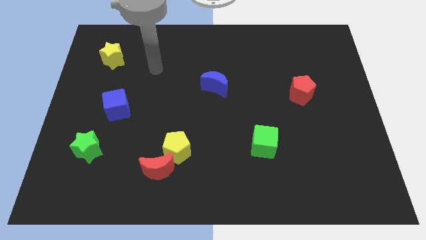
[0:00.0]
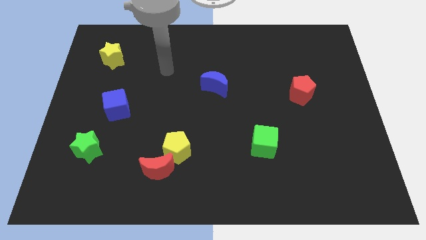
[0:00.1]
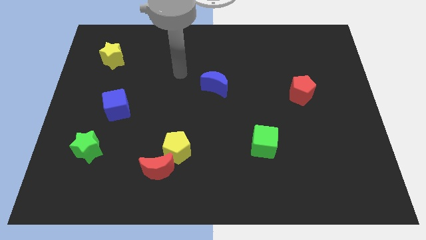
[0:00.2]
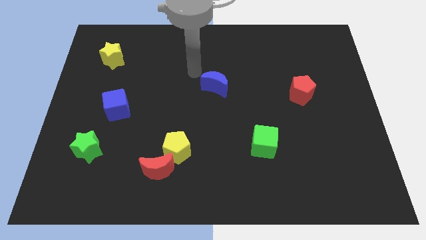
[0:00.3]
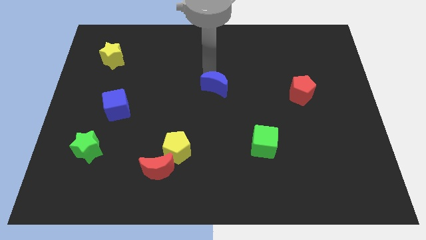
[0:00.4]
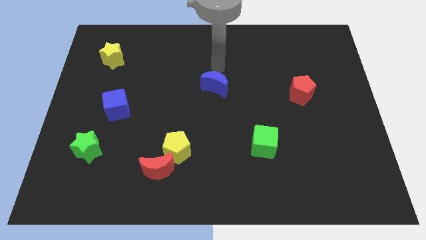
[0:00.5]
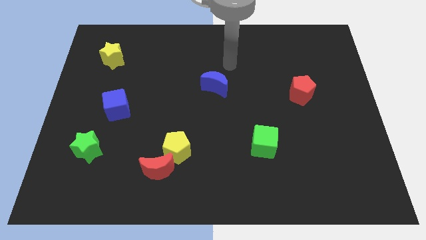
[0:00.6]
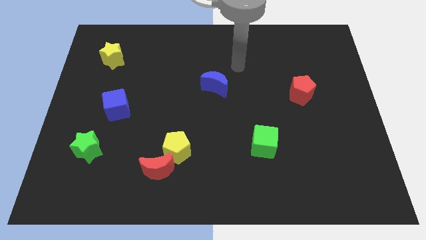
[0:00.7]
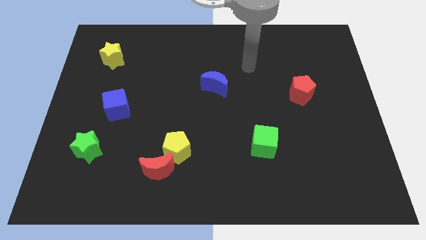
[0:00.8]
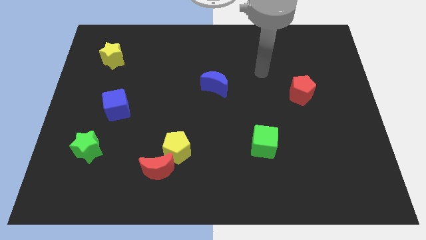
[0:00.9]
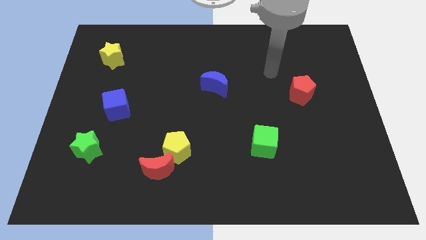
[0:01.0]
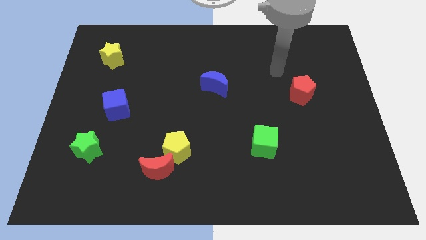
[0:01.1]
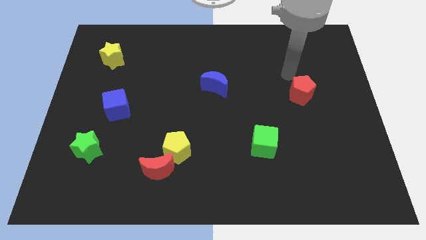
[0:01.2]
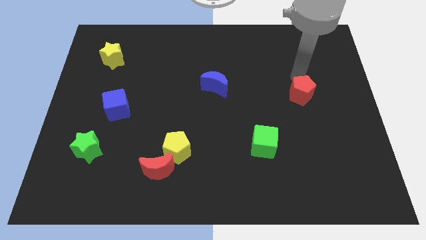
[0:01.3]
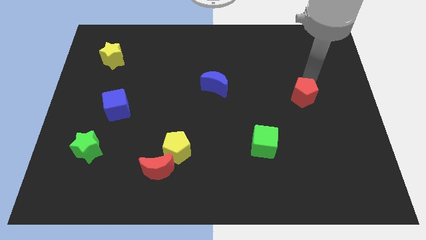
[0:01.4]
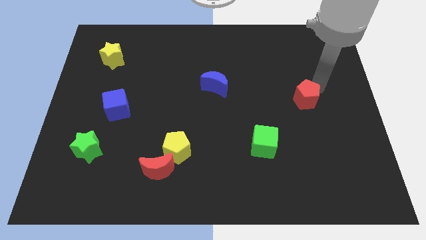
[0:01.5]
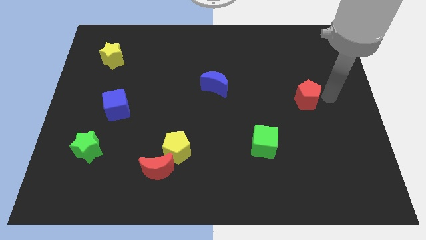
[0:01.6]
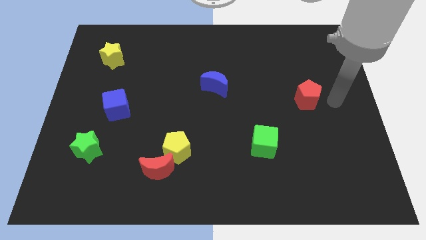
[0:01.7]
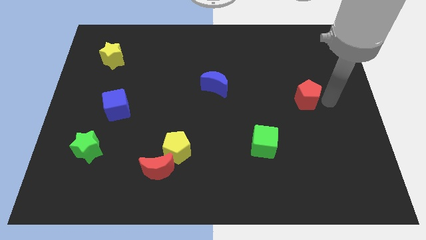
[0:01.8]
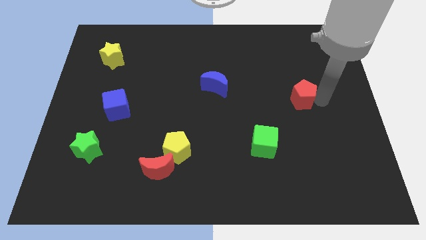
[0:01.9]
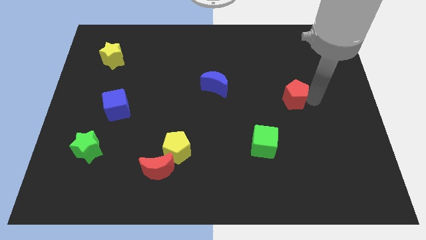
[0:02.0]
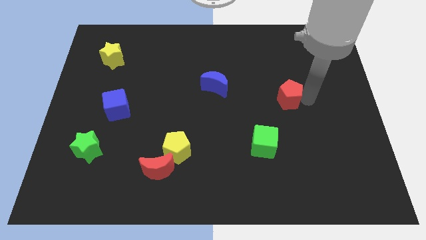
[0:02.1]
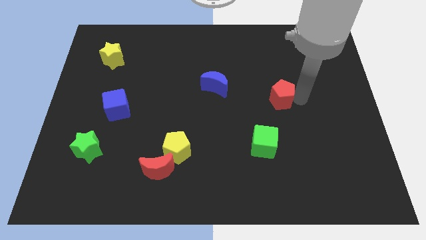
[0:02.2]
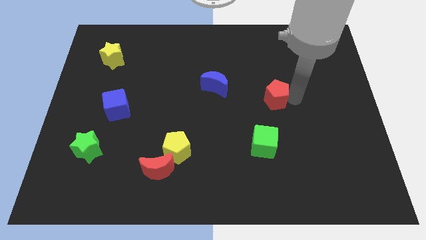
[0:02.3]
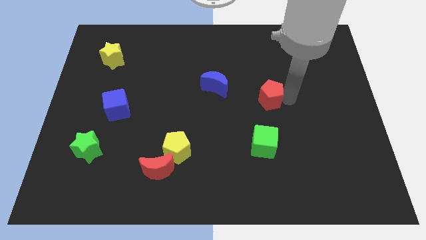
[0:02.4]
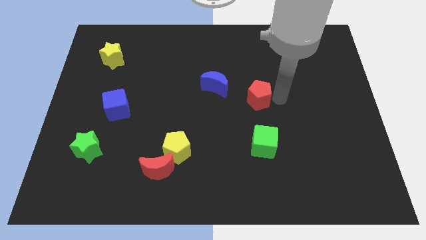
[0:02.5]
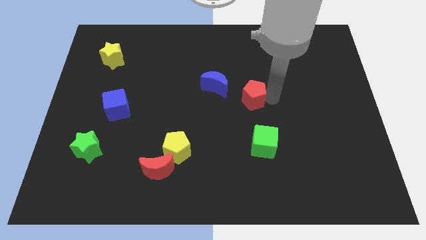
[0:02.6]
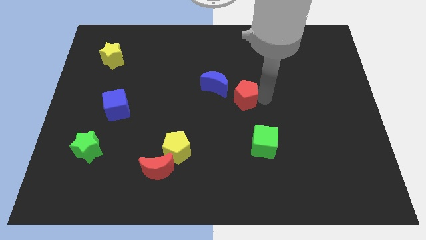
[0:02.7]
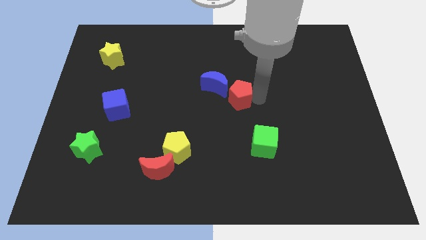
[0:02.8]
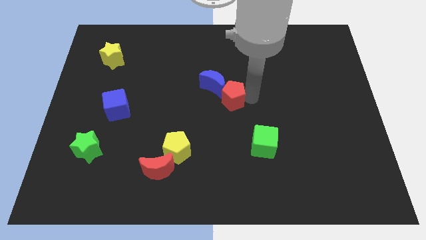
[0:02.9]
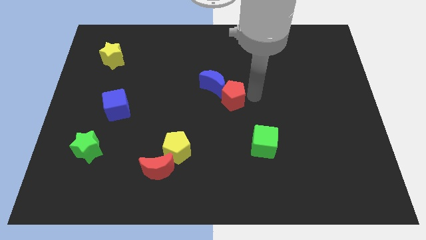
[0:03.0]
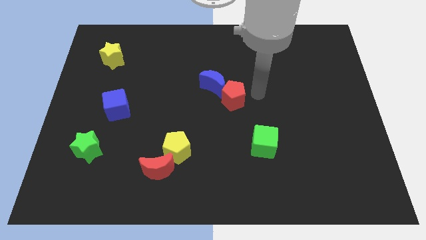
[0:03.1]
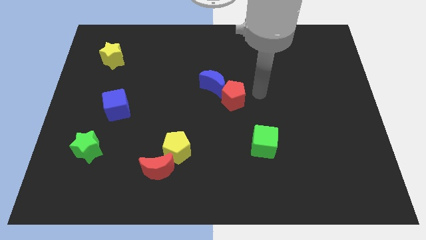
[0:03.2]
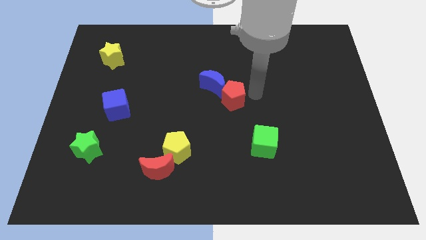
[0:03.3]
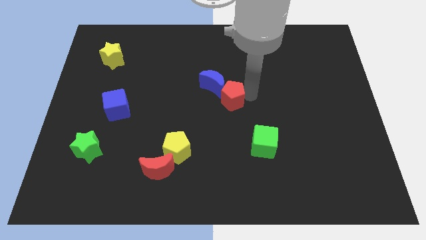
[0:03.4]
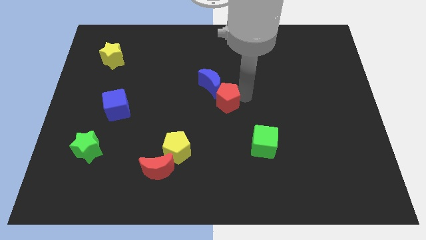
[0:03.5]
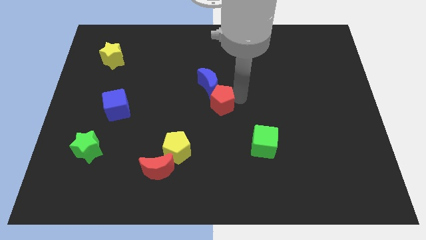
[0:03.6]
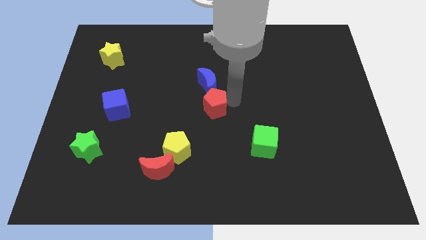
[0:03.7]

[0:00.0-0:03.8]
move the red pentagon to the left

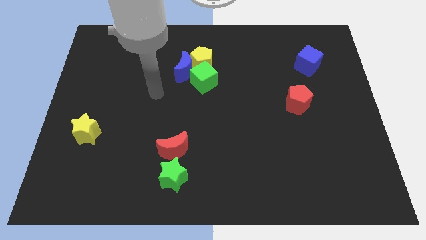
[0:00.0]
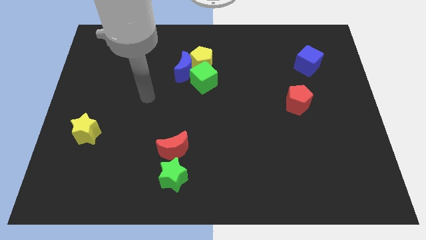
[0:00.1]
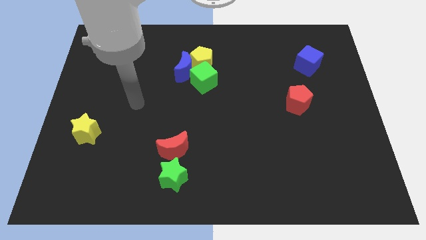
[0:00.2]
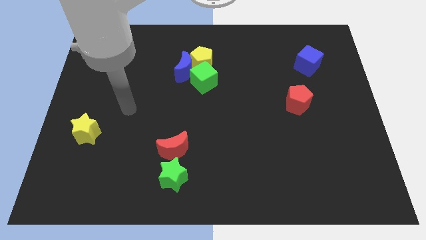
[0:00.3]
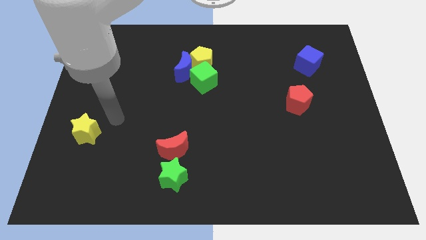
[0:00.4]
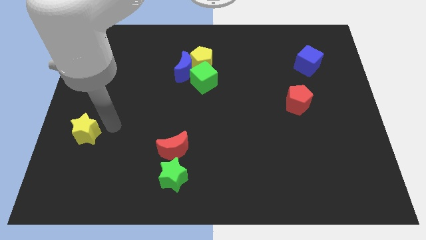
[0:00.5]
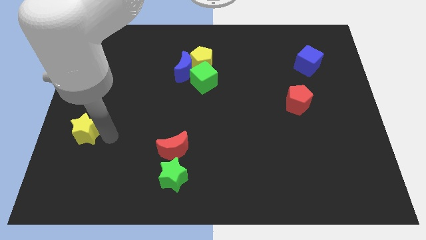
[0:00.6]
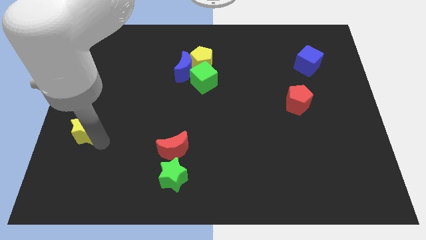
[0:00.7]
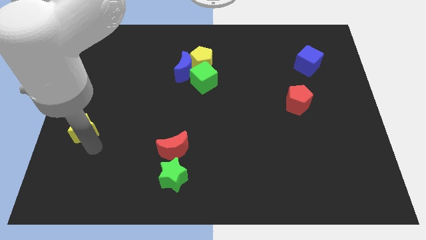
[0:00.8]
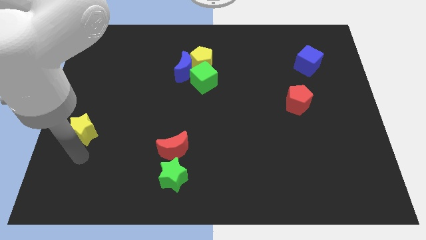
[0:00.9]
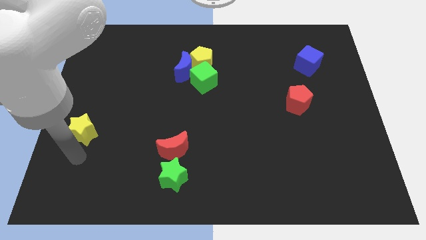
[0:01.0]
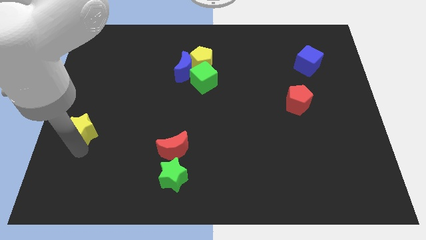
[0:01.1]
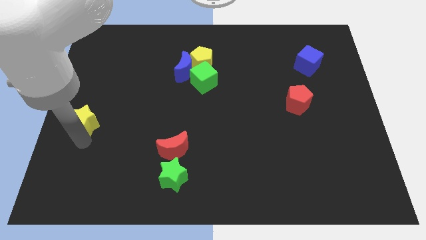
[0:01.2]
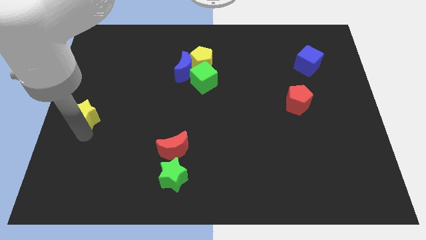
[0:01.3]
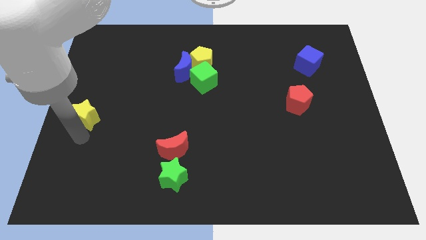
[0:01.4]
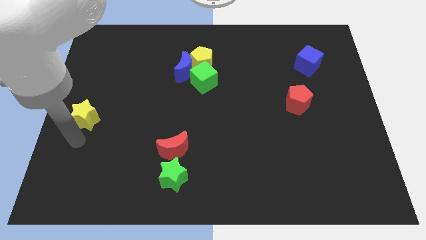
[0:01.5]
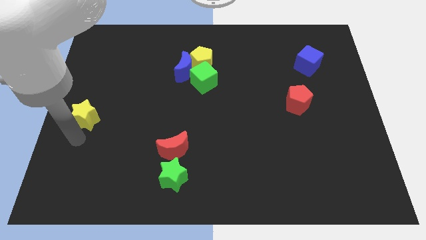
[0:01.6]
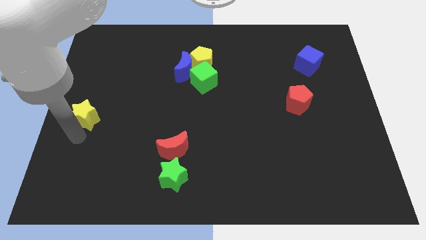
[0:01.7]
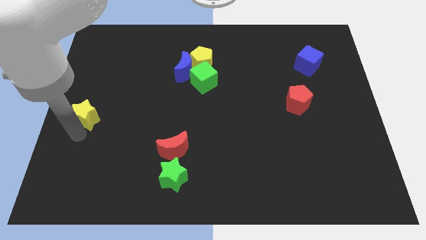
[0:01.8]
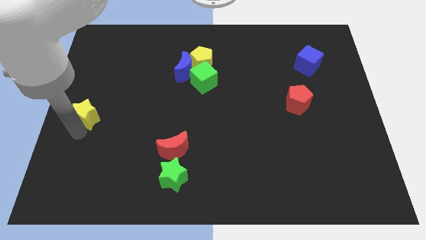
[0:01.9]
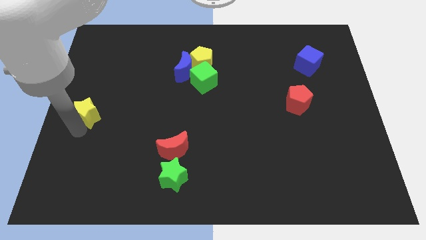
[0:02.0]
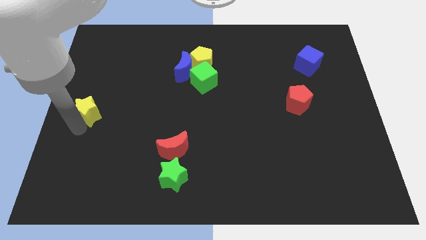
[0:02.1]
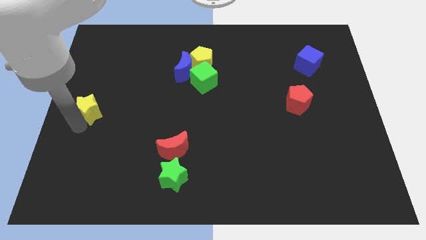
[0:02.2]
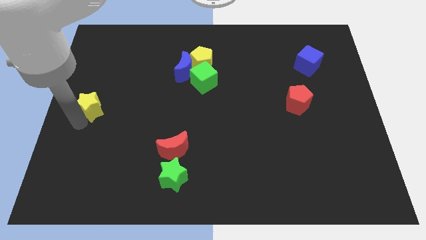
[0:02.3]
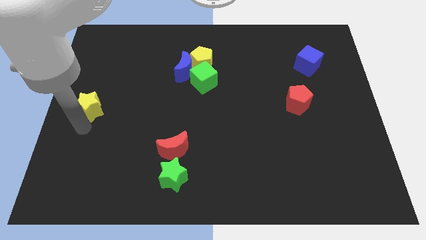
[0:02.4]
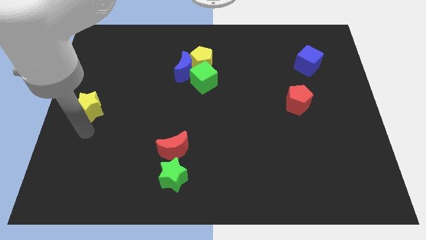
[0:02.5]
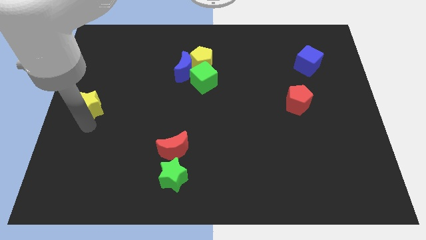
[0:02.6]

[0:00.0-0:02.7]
move the yellow star up somewhat

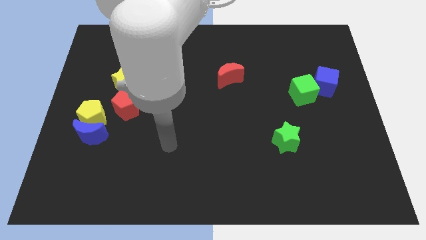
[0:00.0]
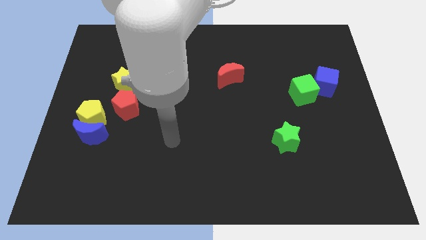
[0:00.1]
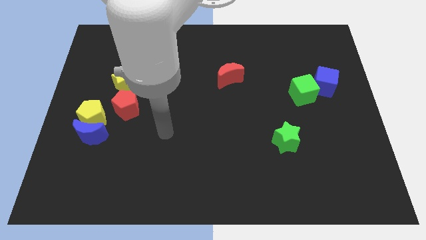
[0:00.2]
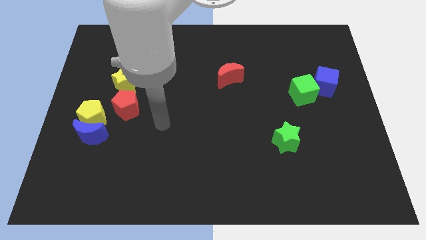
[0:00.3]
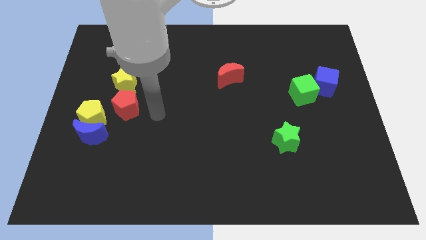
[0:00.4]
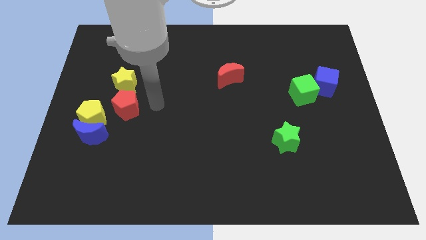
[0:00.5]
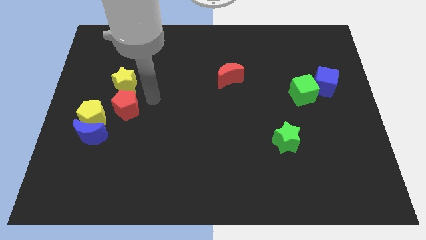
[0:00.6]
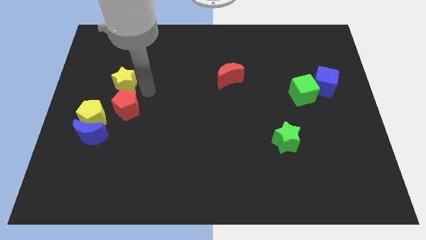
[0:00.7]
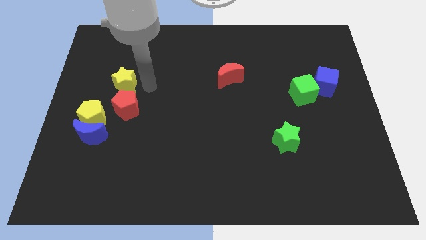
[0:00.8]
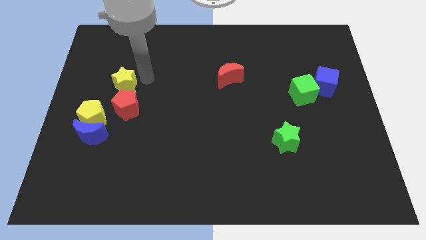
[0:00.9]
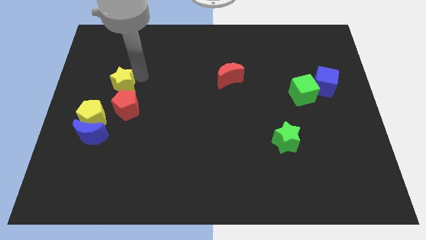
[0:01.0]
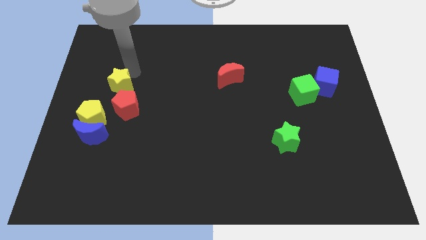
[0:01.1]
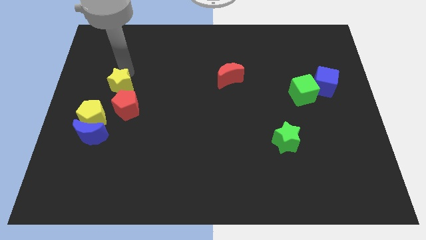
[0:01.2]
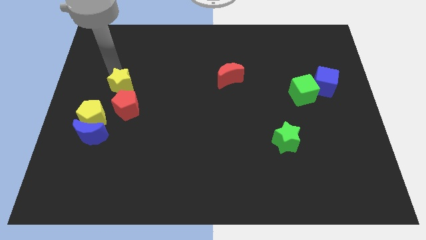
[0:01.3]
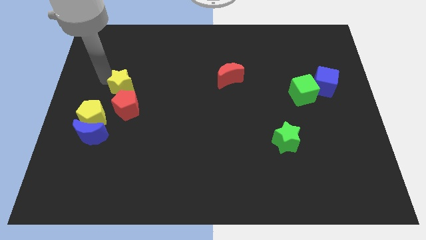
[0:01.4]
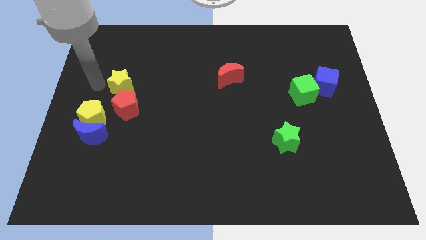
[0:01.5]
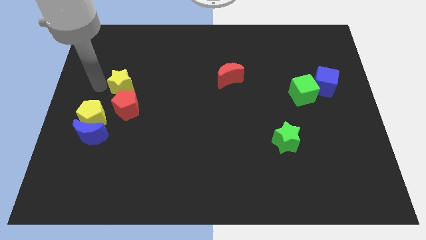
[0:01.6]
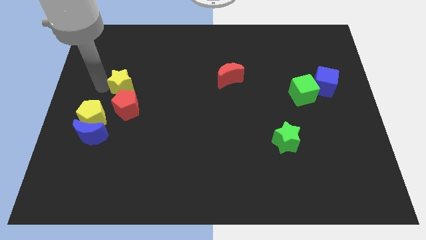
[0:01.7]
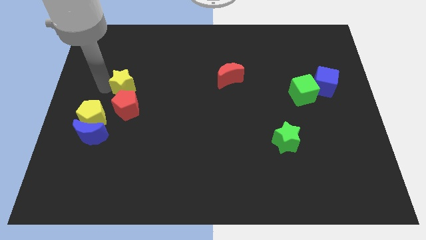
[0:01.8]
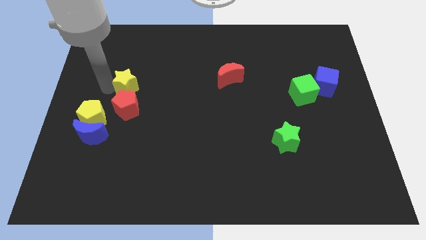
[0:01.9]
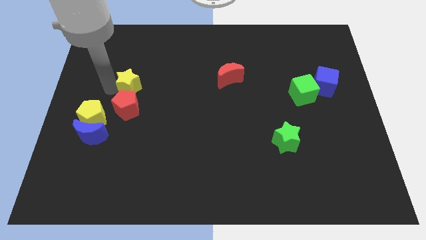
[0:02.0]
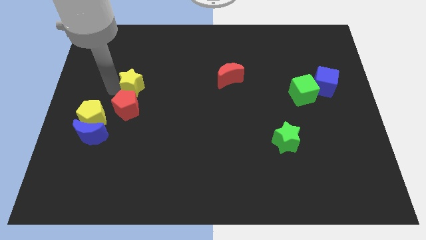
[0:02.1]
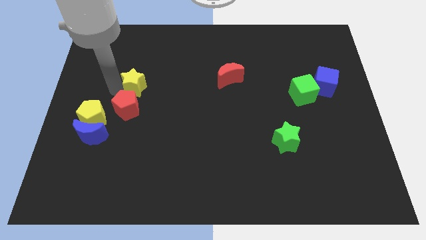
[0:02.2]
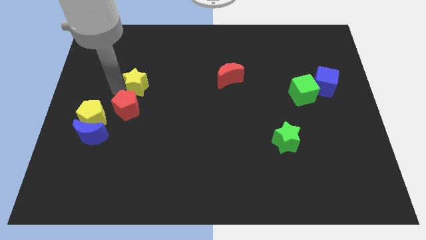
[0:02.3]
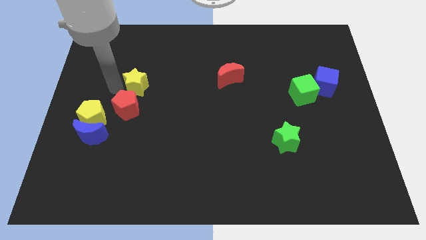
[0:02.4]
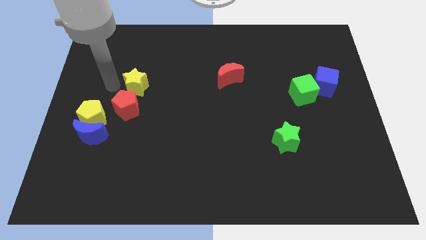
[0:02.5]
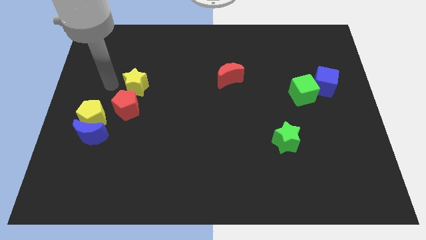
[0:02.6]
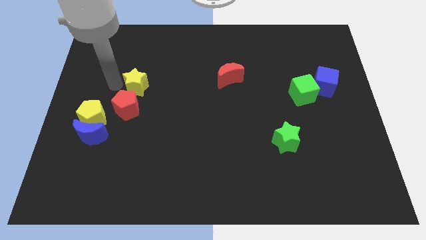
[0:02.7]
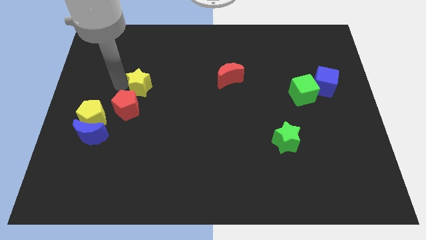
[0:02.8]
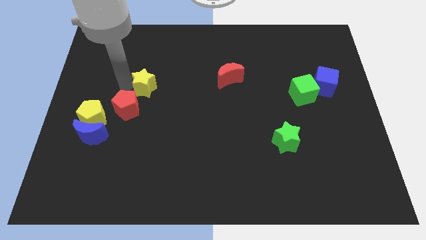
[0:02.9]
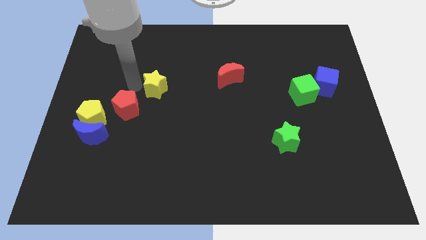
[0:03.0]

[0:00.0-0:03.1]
move the yellow star a little bit right
